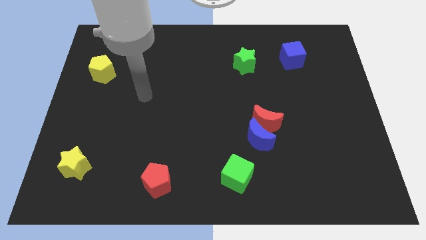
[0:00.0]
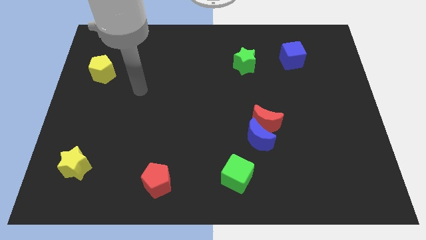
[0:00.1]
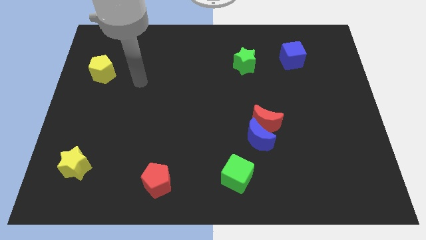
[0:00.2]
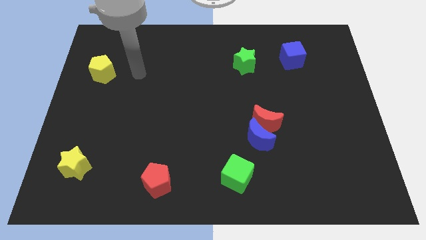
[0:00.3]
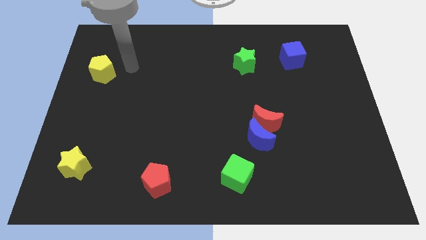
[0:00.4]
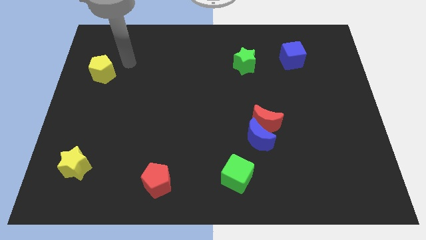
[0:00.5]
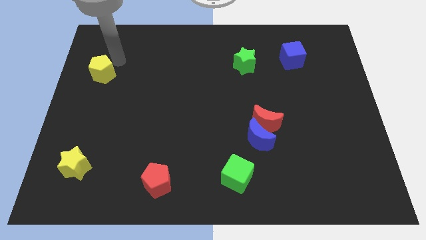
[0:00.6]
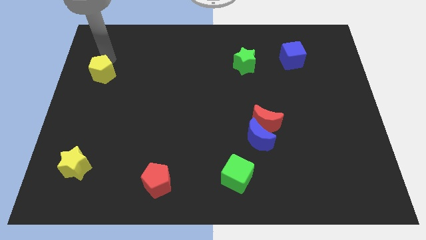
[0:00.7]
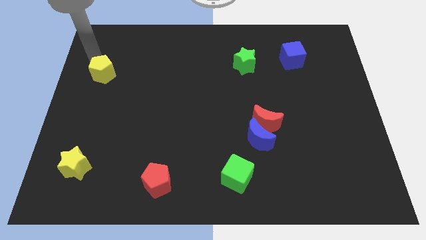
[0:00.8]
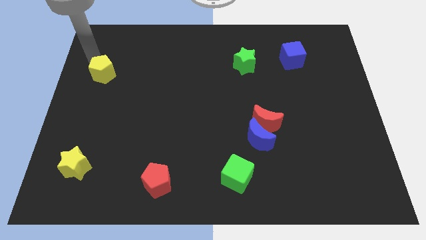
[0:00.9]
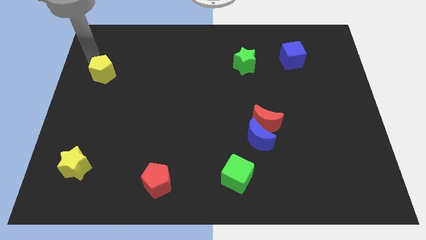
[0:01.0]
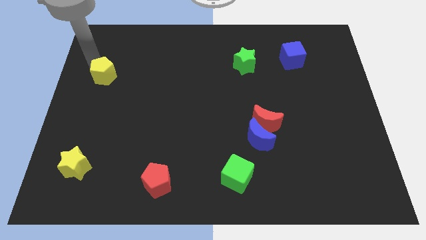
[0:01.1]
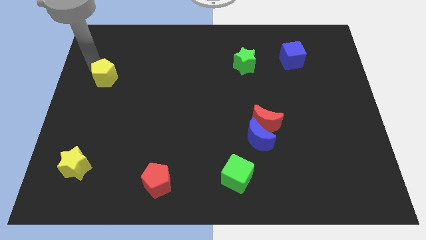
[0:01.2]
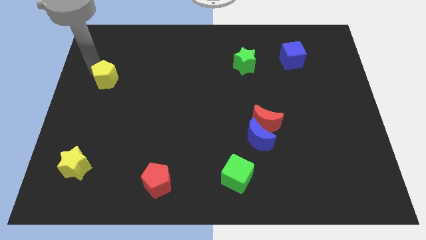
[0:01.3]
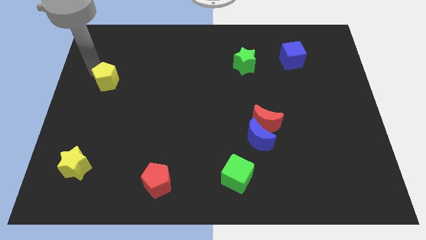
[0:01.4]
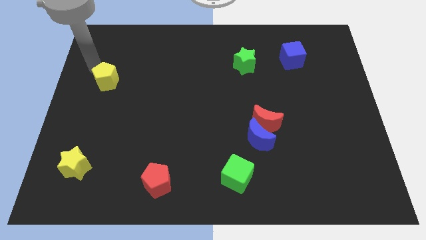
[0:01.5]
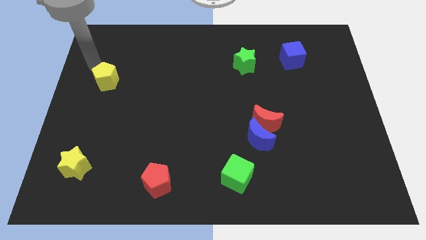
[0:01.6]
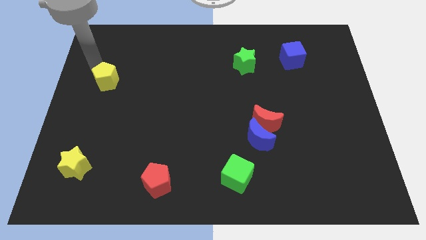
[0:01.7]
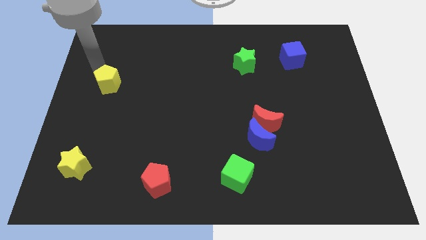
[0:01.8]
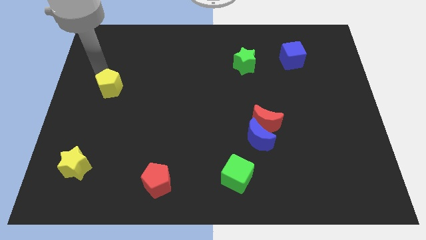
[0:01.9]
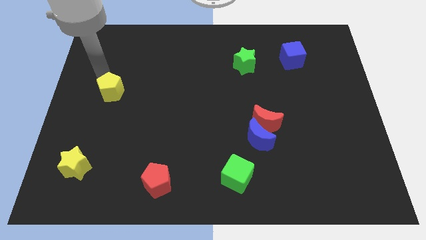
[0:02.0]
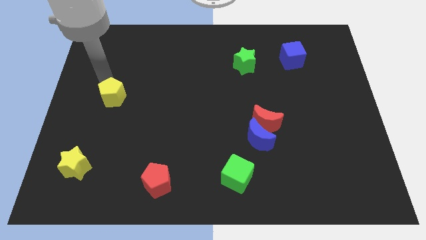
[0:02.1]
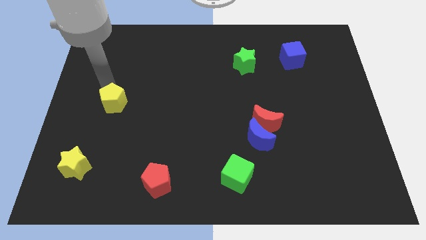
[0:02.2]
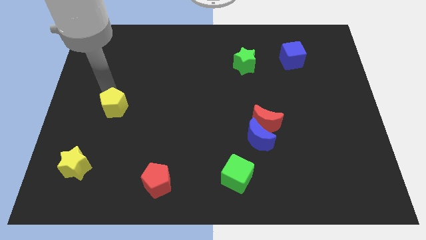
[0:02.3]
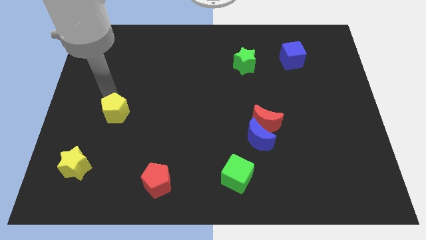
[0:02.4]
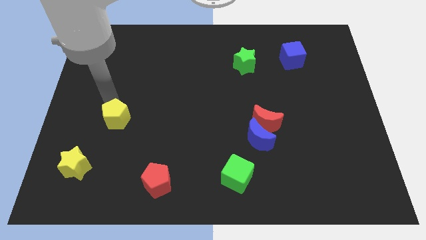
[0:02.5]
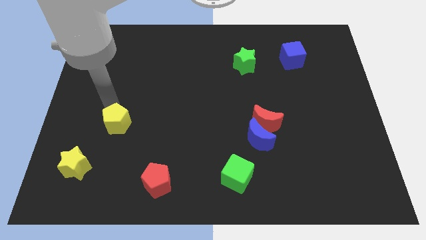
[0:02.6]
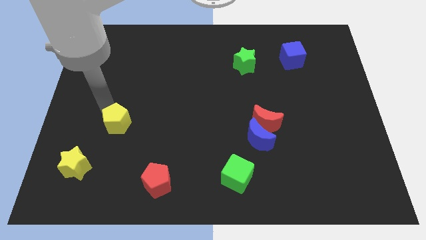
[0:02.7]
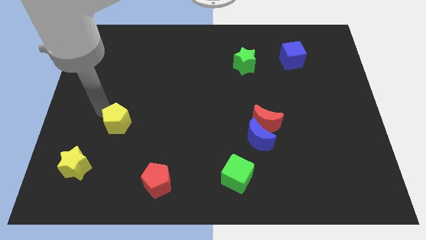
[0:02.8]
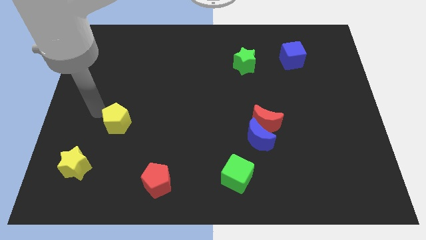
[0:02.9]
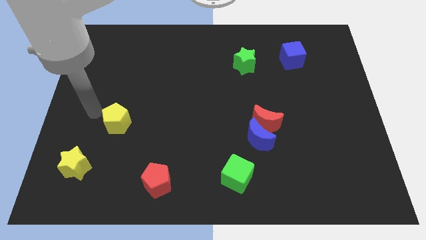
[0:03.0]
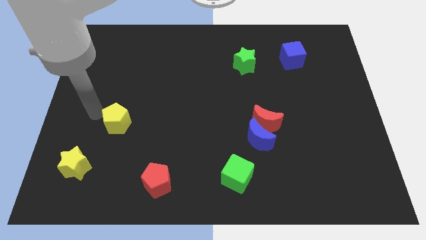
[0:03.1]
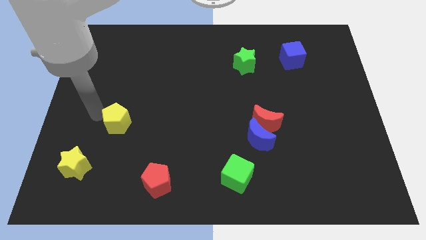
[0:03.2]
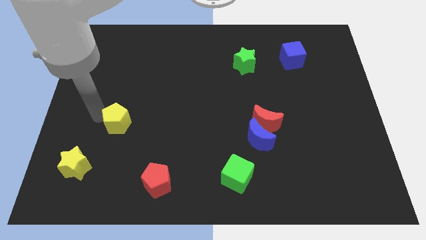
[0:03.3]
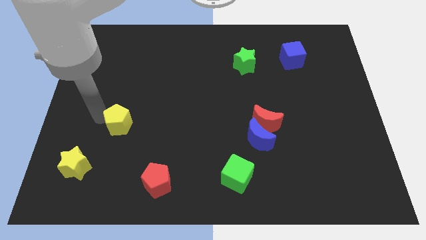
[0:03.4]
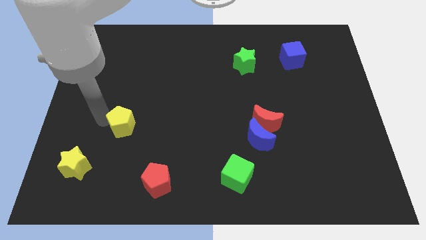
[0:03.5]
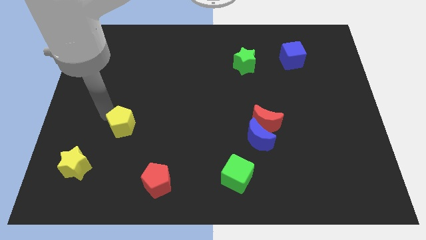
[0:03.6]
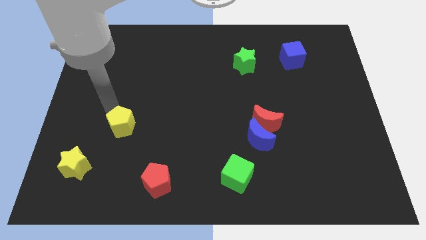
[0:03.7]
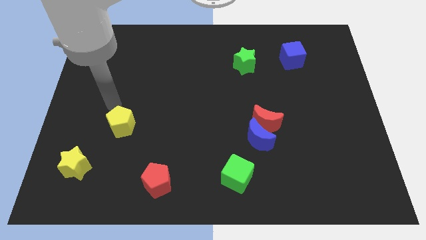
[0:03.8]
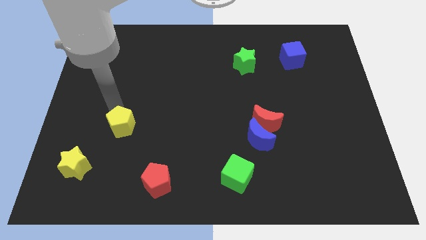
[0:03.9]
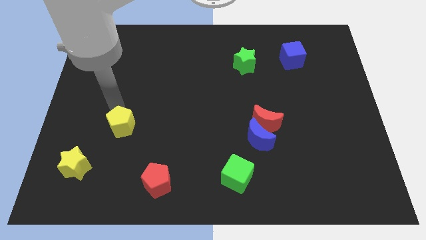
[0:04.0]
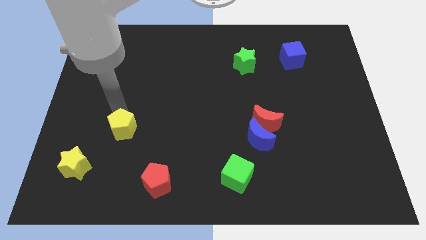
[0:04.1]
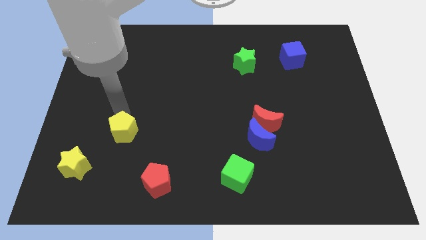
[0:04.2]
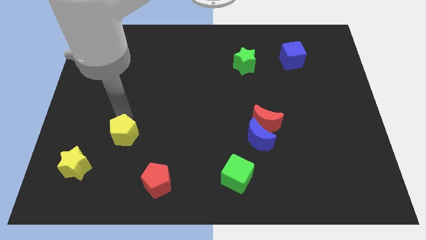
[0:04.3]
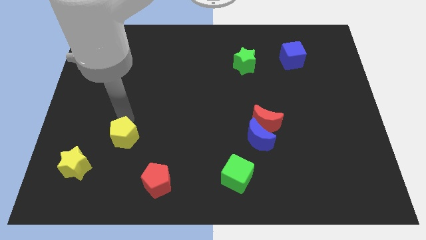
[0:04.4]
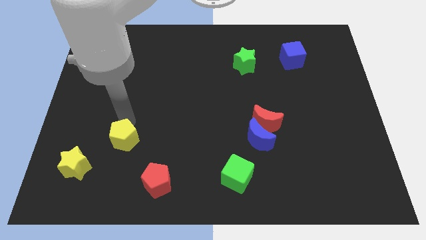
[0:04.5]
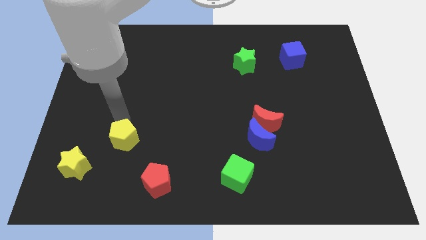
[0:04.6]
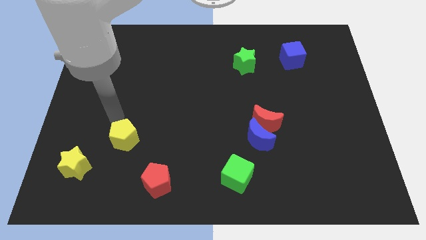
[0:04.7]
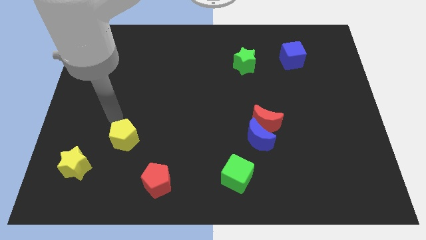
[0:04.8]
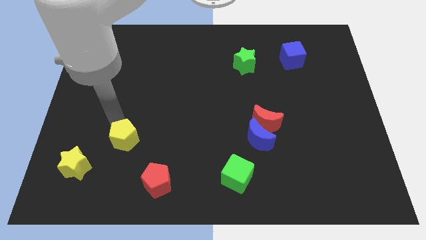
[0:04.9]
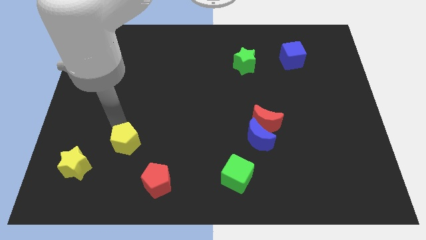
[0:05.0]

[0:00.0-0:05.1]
push the yellow pentagon diagonally up and to the left of the red pentagon

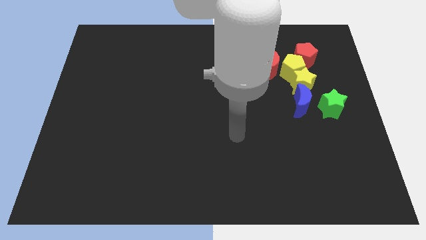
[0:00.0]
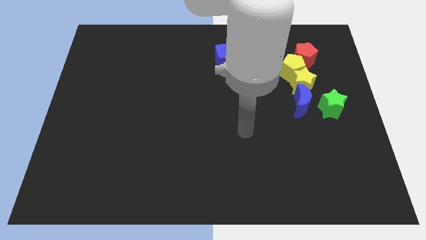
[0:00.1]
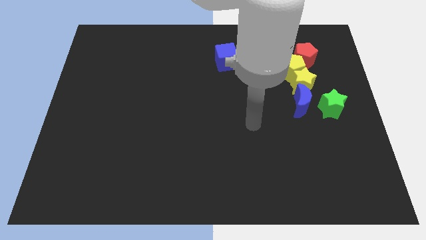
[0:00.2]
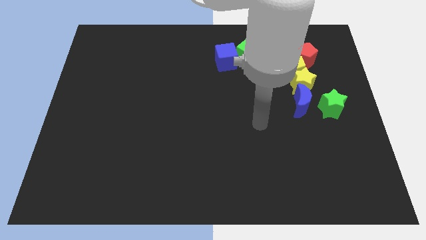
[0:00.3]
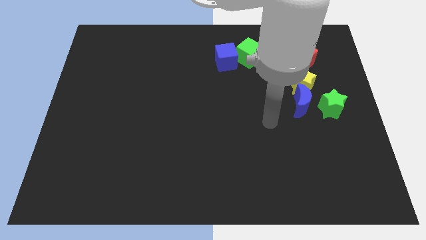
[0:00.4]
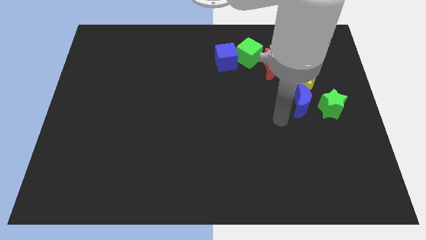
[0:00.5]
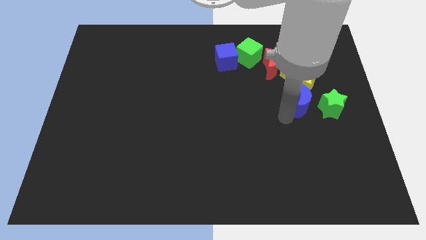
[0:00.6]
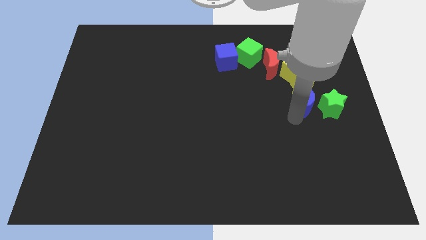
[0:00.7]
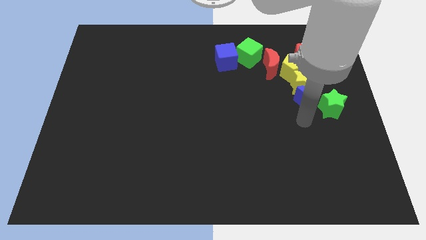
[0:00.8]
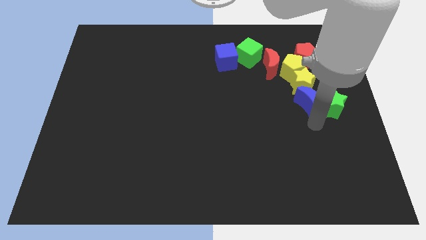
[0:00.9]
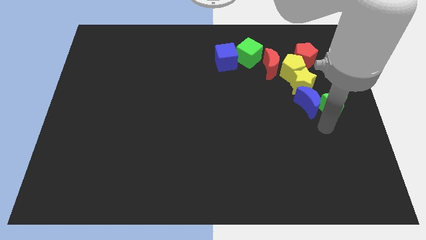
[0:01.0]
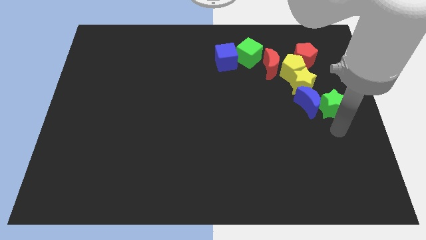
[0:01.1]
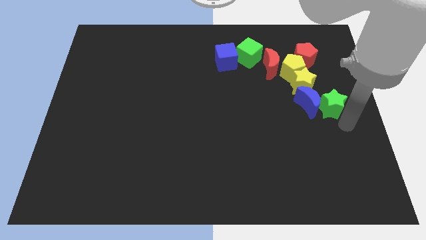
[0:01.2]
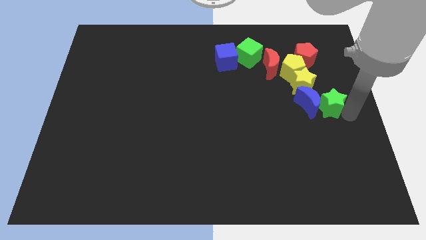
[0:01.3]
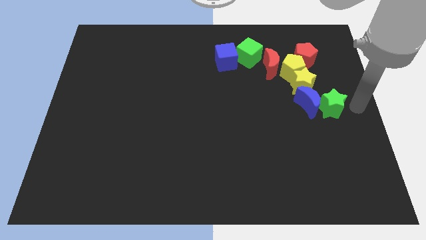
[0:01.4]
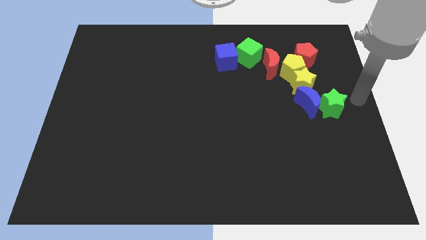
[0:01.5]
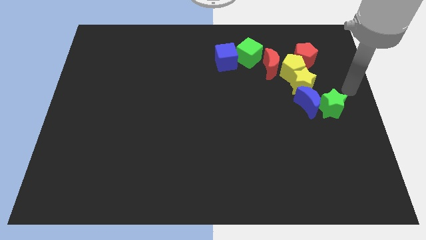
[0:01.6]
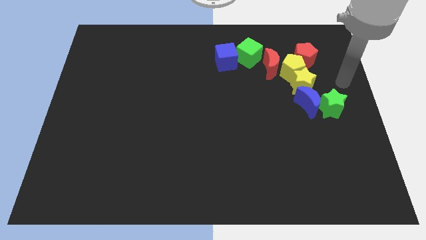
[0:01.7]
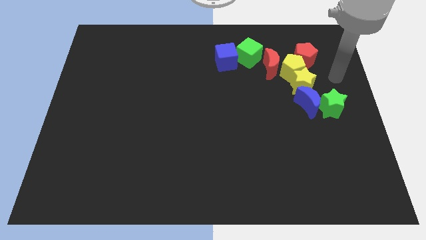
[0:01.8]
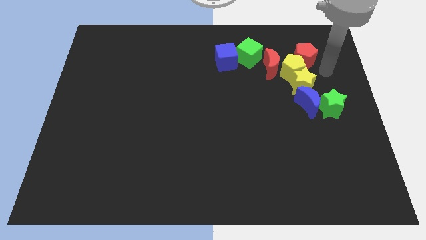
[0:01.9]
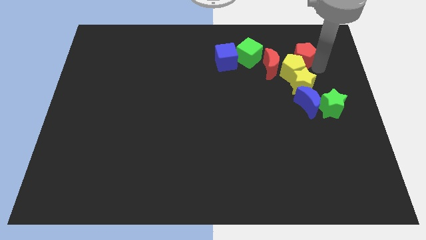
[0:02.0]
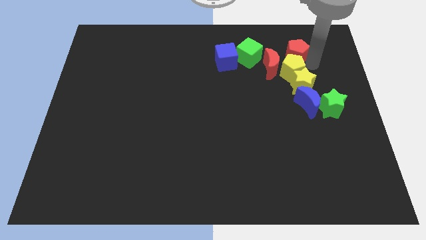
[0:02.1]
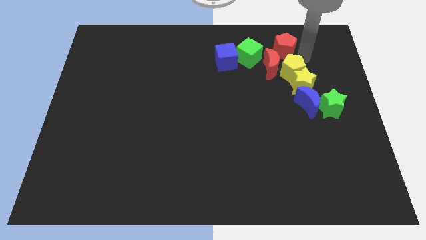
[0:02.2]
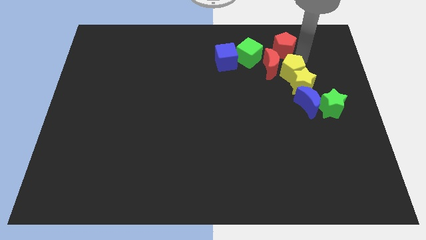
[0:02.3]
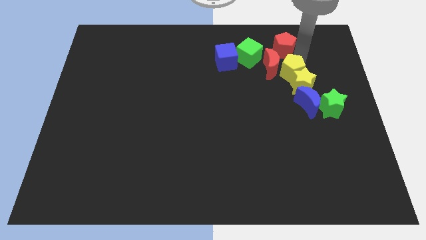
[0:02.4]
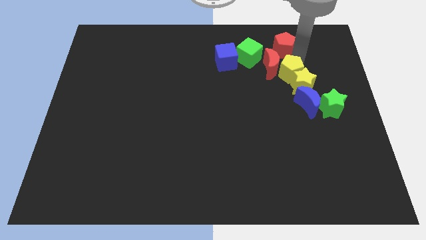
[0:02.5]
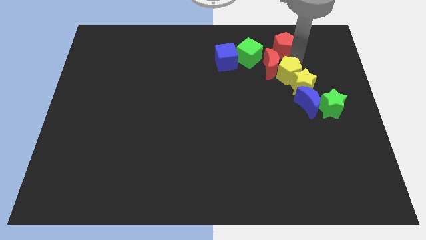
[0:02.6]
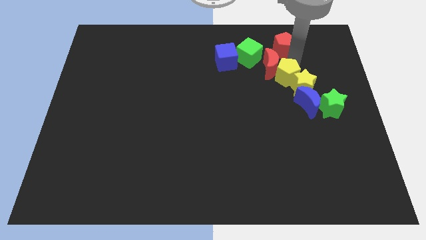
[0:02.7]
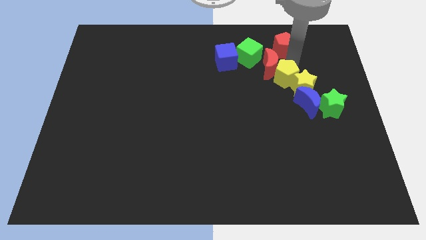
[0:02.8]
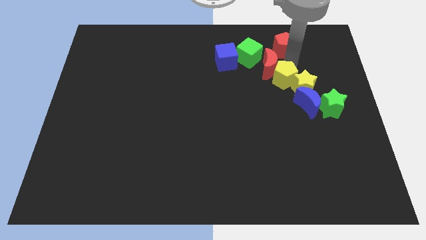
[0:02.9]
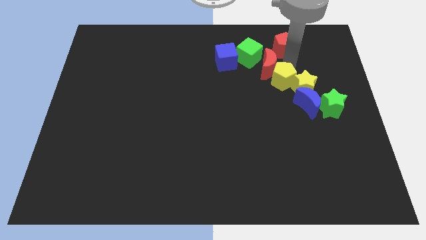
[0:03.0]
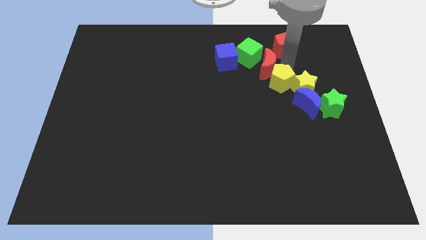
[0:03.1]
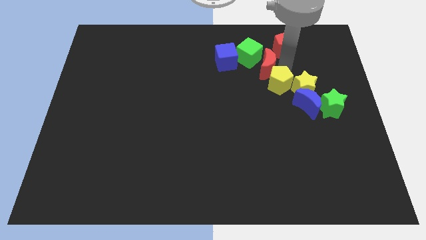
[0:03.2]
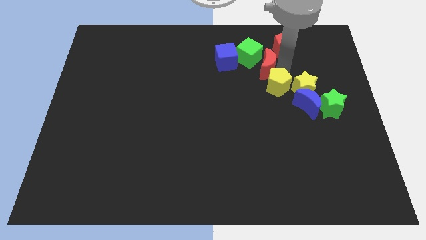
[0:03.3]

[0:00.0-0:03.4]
move the yellow pentagon diagonally down and to the left of the yellow star
